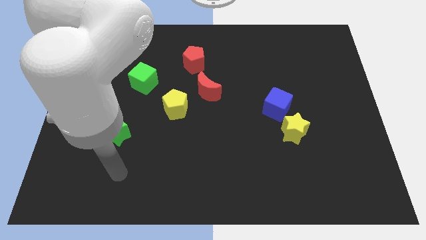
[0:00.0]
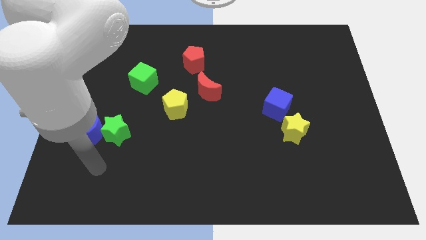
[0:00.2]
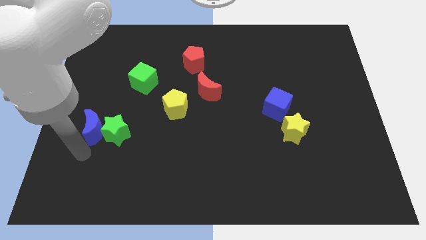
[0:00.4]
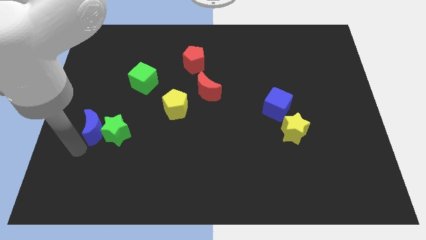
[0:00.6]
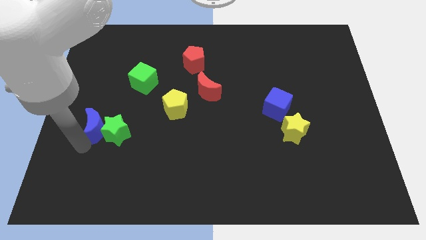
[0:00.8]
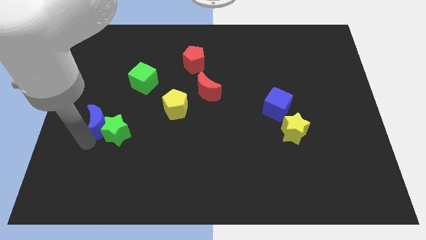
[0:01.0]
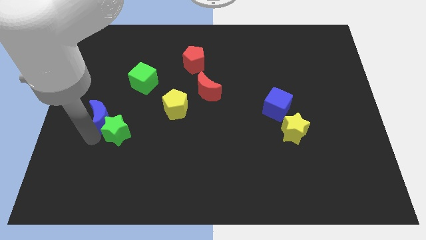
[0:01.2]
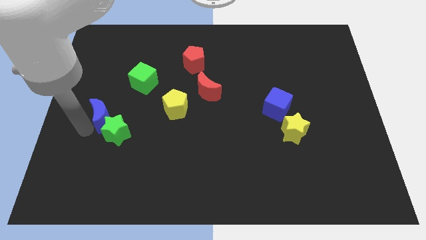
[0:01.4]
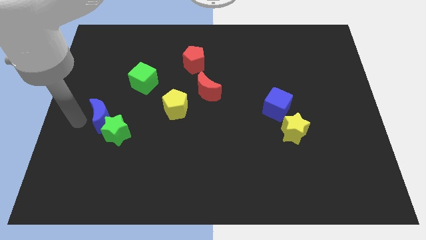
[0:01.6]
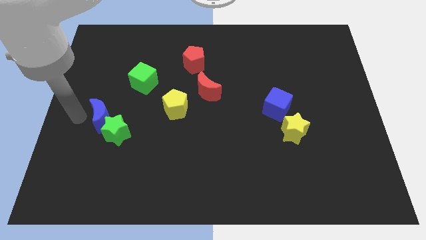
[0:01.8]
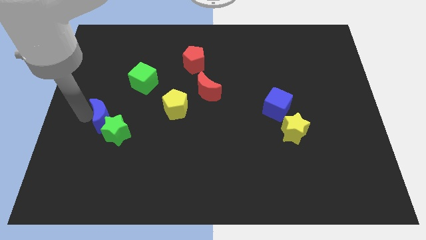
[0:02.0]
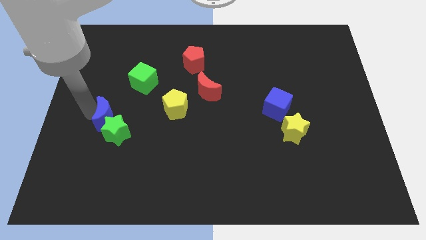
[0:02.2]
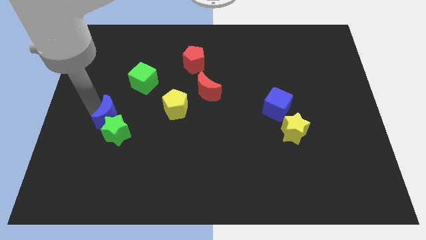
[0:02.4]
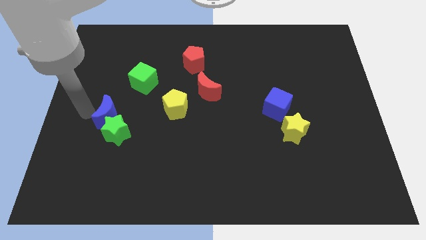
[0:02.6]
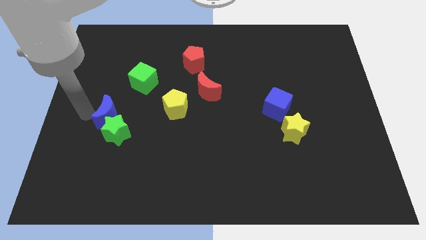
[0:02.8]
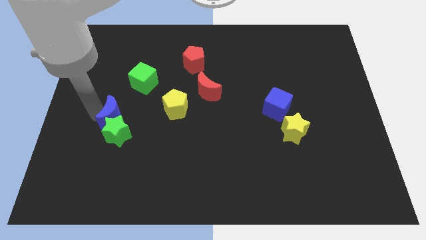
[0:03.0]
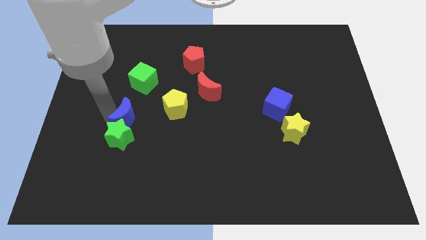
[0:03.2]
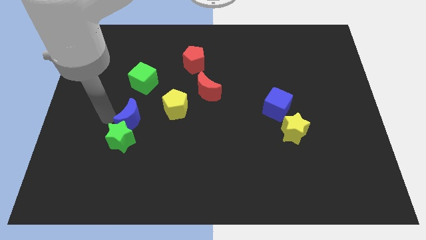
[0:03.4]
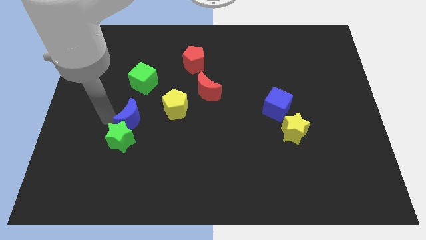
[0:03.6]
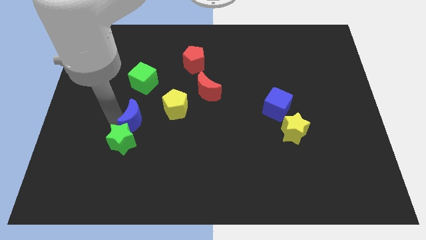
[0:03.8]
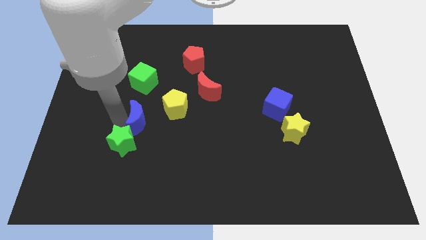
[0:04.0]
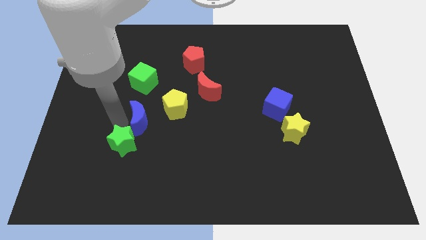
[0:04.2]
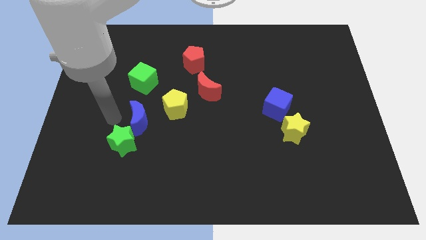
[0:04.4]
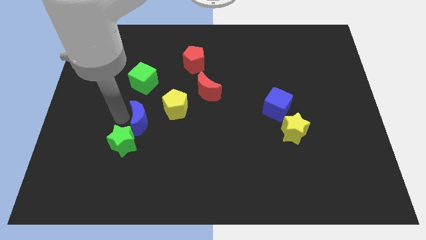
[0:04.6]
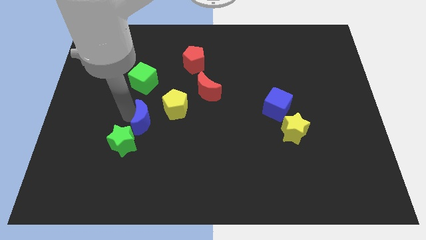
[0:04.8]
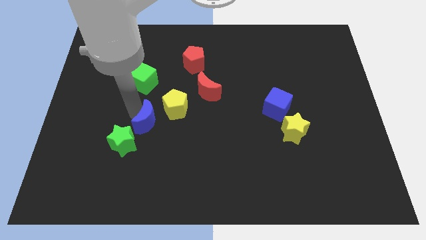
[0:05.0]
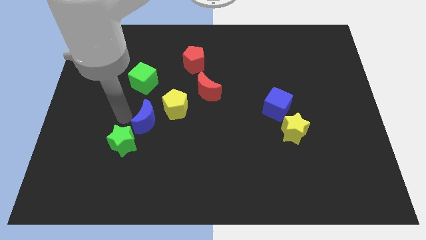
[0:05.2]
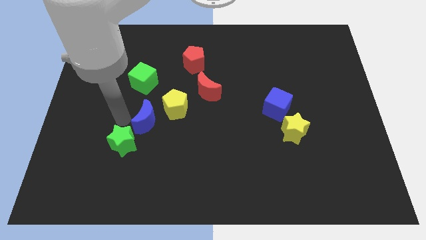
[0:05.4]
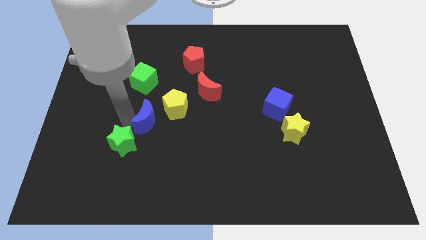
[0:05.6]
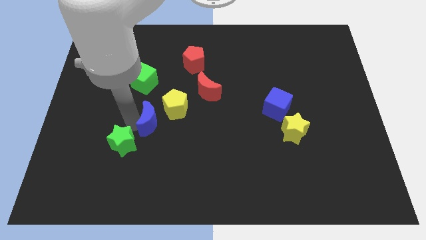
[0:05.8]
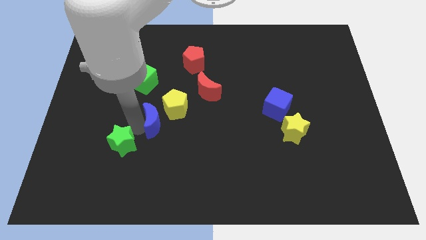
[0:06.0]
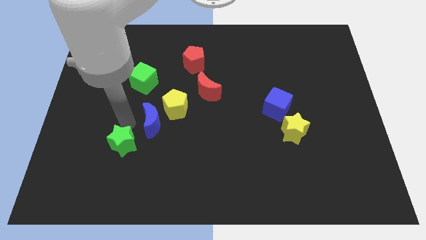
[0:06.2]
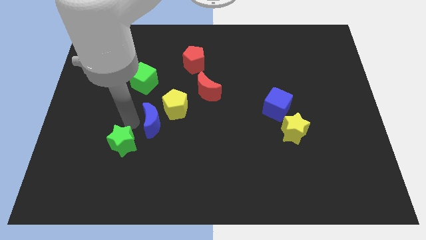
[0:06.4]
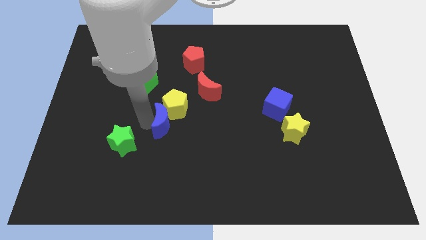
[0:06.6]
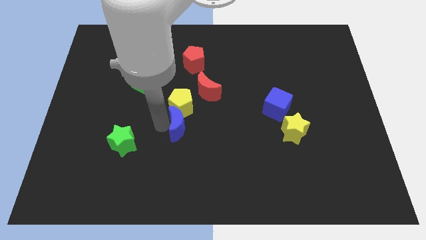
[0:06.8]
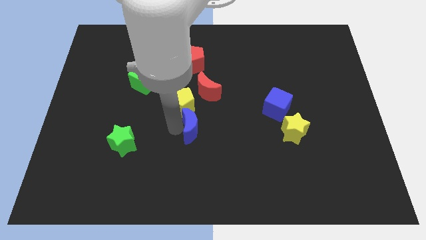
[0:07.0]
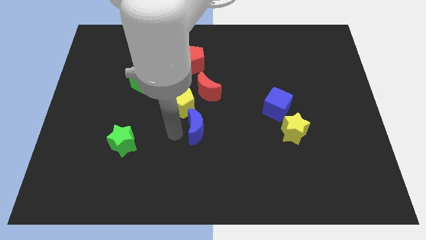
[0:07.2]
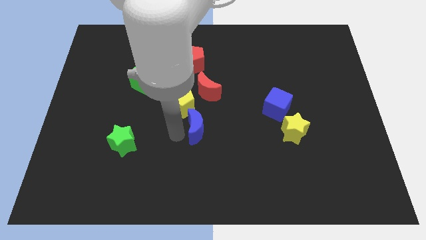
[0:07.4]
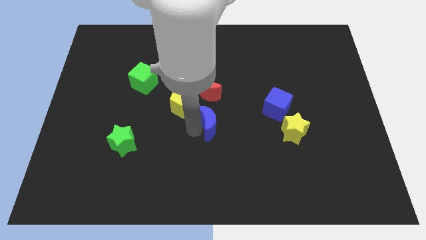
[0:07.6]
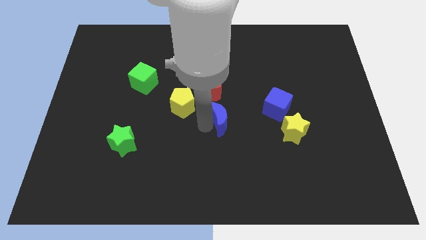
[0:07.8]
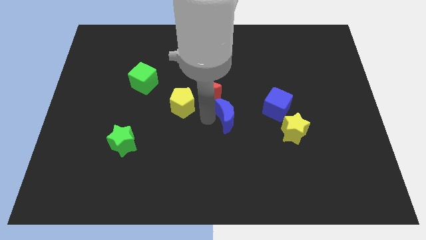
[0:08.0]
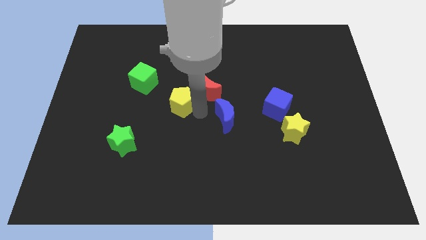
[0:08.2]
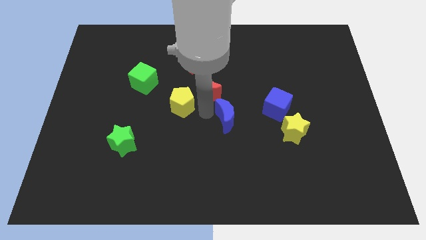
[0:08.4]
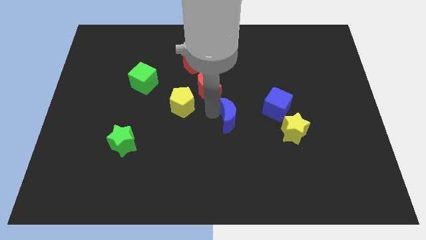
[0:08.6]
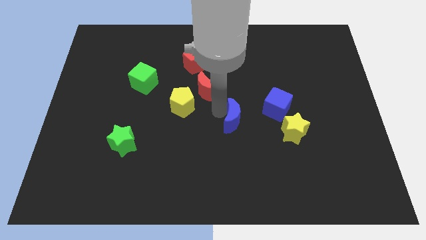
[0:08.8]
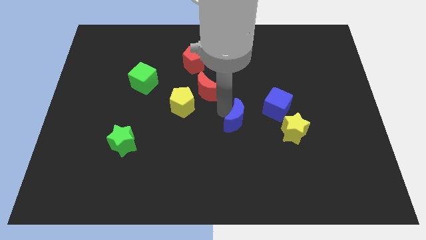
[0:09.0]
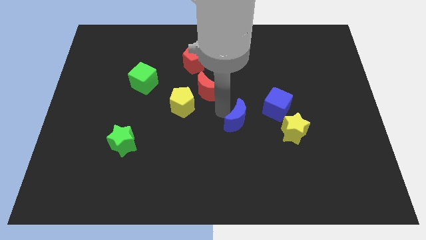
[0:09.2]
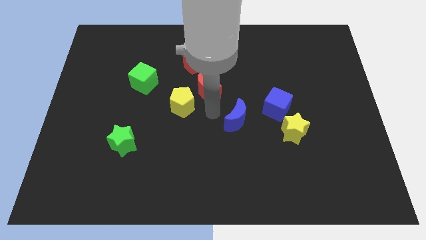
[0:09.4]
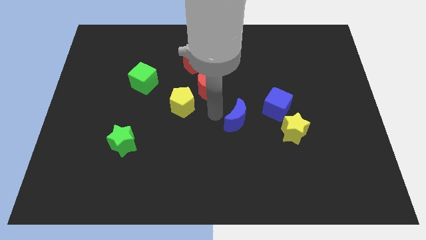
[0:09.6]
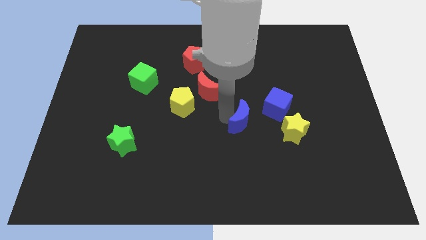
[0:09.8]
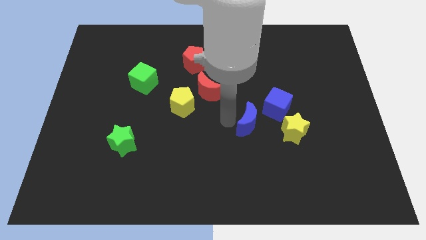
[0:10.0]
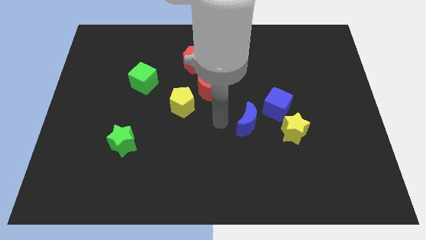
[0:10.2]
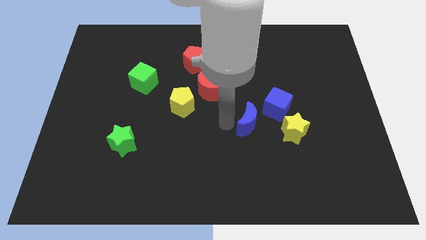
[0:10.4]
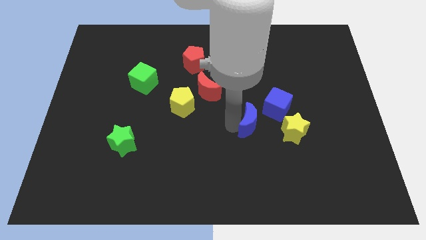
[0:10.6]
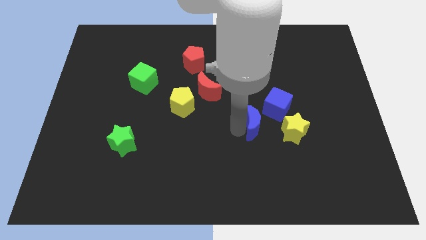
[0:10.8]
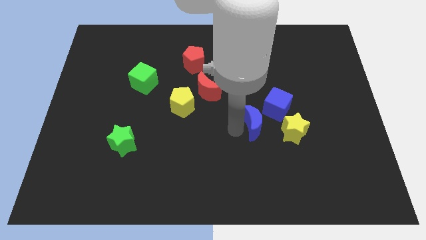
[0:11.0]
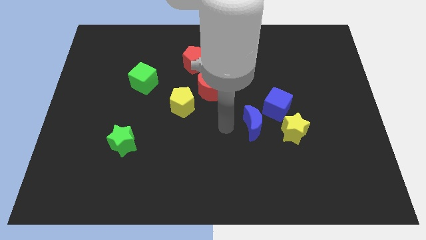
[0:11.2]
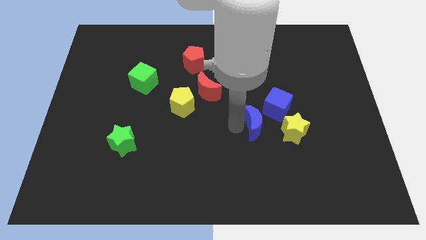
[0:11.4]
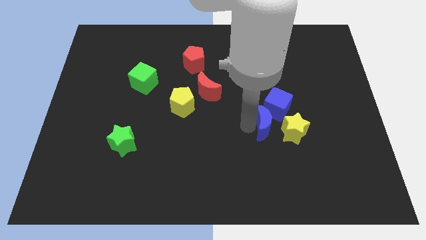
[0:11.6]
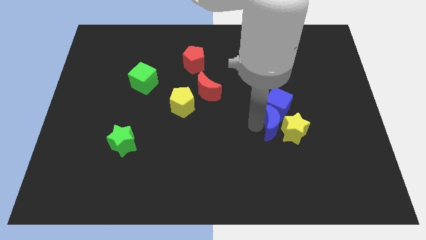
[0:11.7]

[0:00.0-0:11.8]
slide the blue moon close to the yellow star

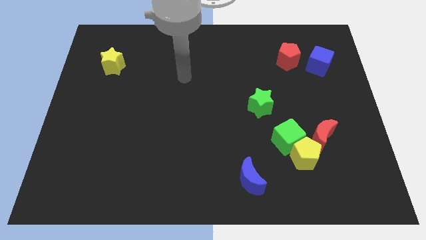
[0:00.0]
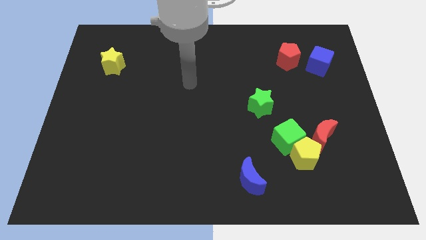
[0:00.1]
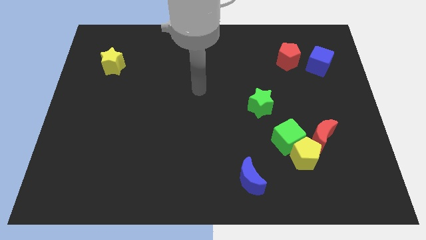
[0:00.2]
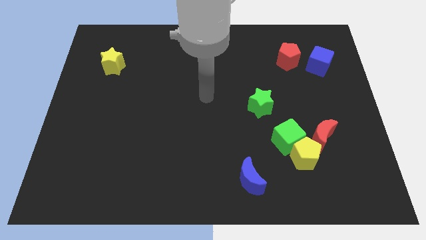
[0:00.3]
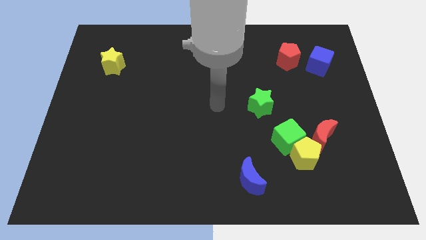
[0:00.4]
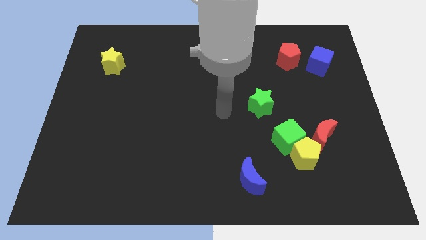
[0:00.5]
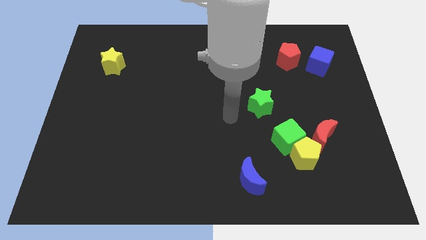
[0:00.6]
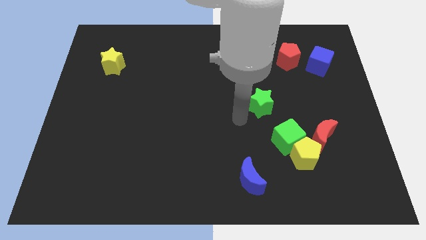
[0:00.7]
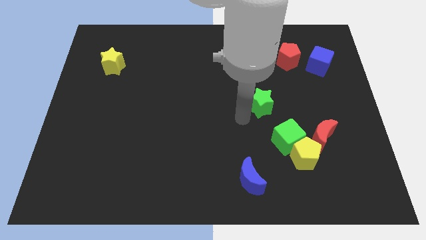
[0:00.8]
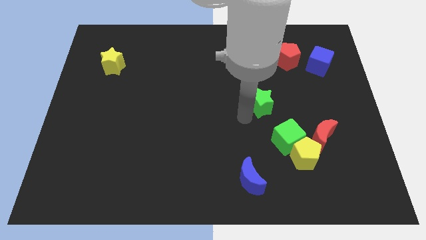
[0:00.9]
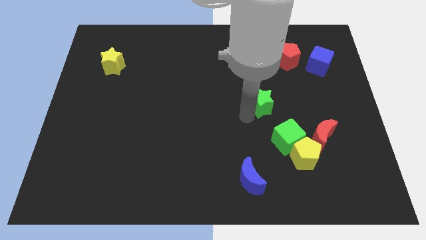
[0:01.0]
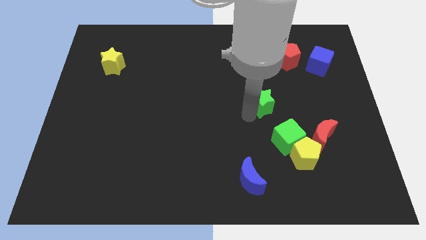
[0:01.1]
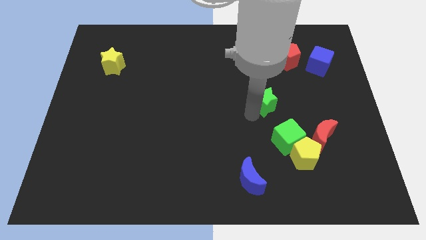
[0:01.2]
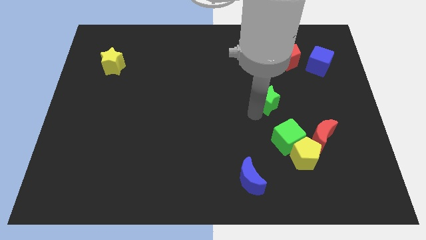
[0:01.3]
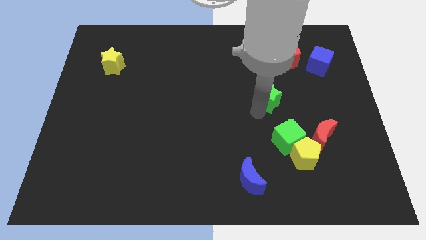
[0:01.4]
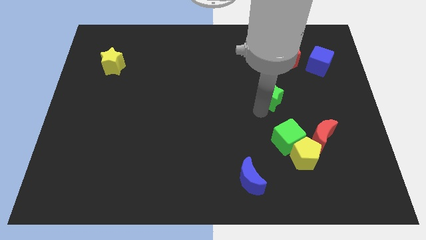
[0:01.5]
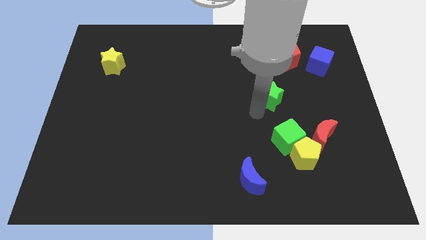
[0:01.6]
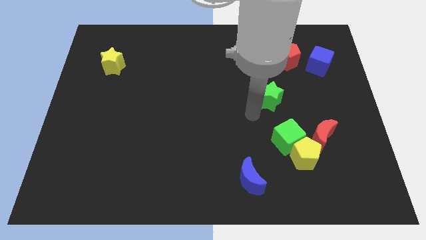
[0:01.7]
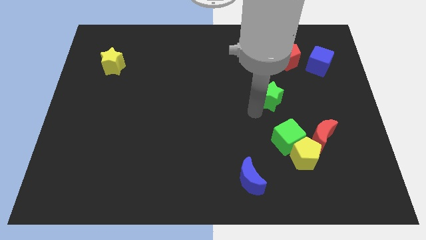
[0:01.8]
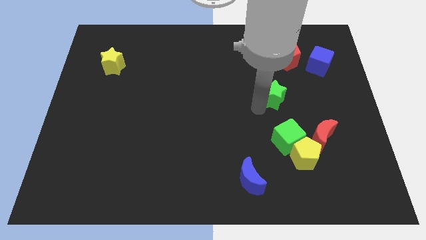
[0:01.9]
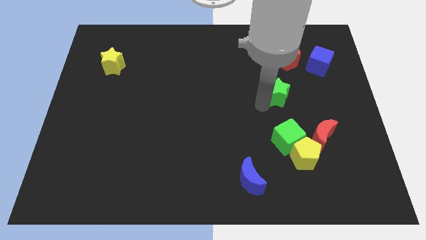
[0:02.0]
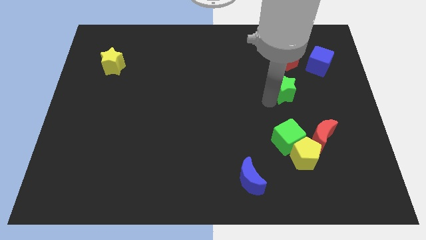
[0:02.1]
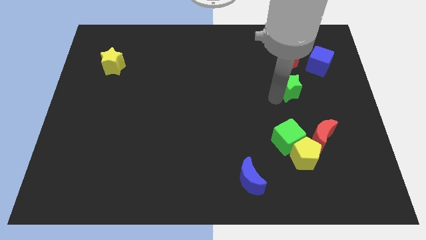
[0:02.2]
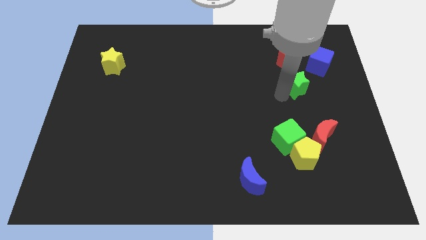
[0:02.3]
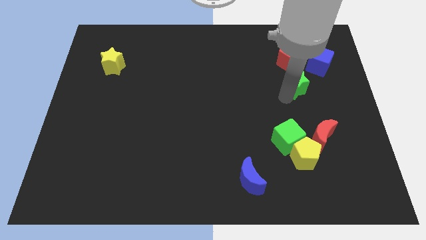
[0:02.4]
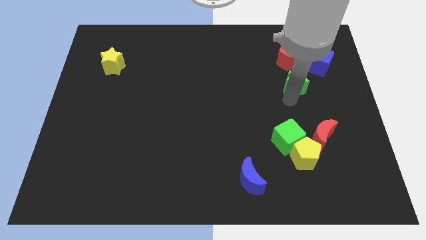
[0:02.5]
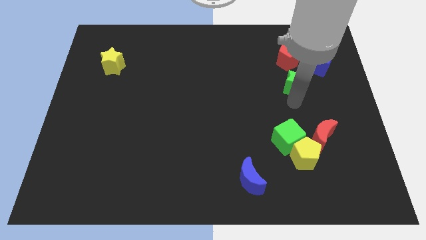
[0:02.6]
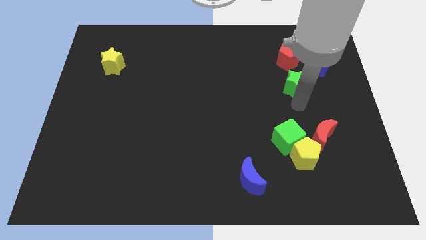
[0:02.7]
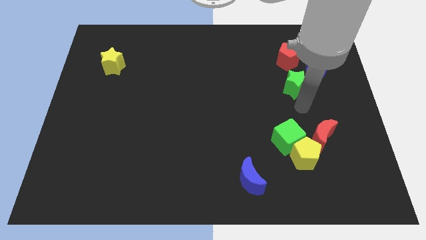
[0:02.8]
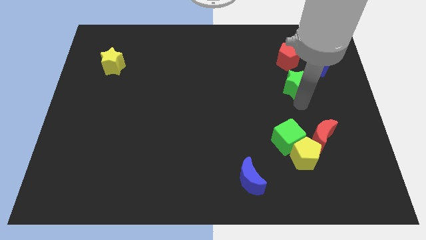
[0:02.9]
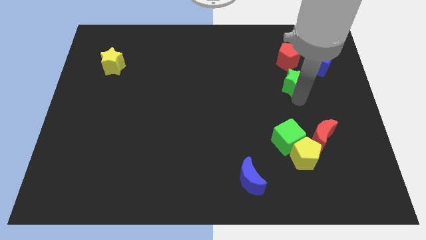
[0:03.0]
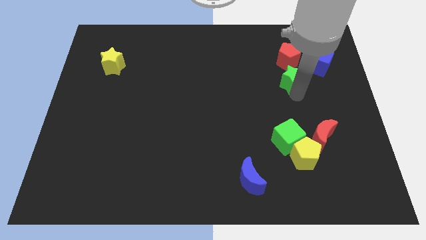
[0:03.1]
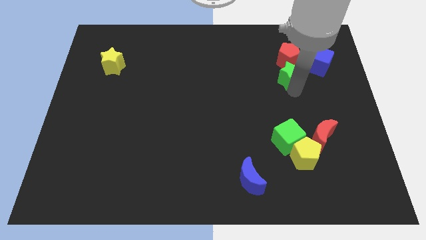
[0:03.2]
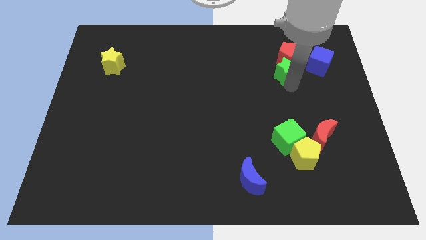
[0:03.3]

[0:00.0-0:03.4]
put the green star close to the red pentagon
